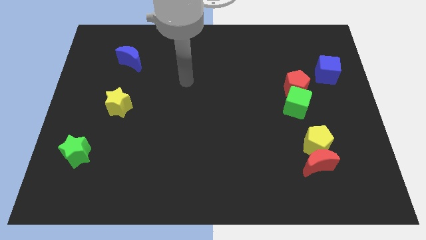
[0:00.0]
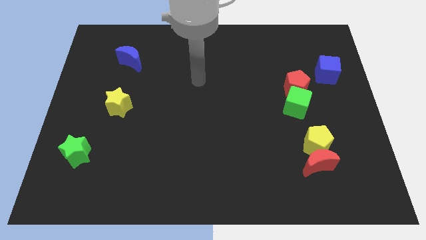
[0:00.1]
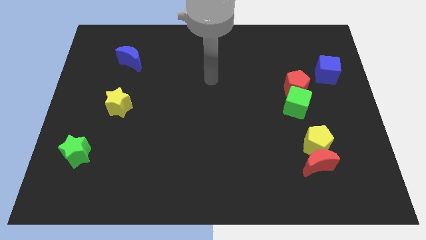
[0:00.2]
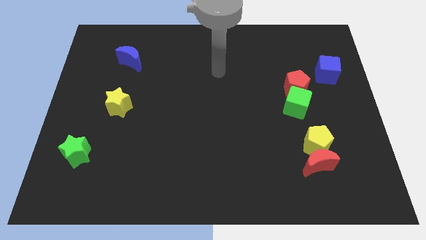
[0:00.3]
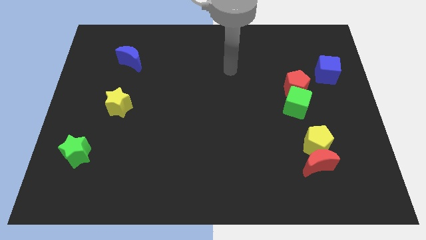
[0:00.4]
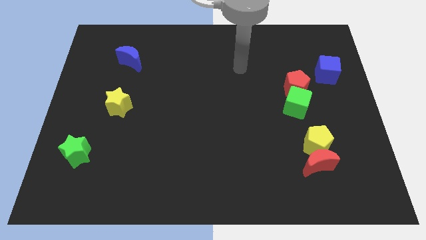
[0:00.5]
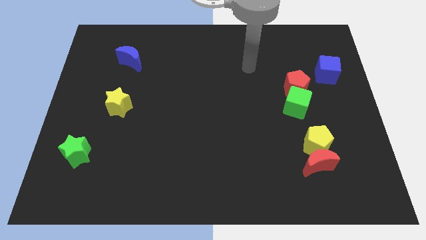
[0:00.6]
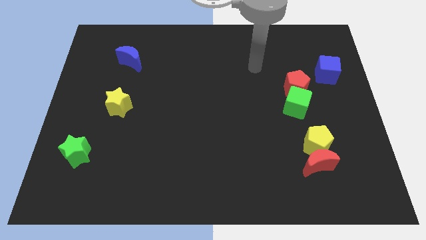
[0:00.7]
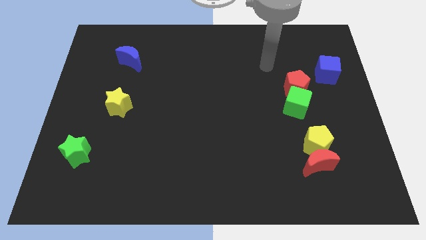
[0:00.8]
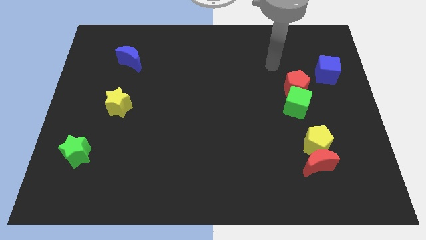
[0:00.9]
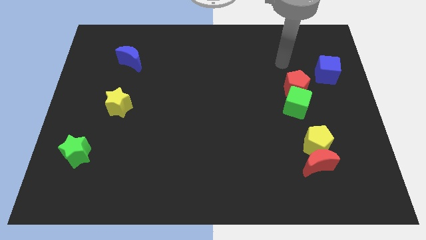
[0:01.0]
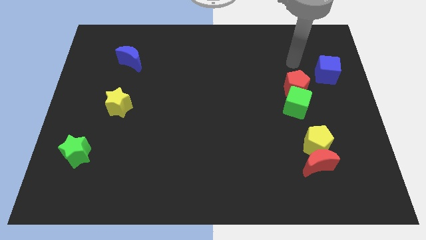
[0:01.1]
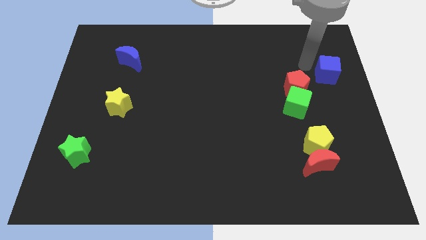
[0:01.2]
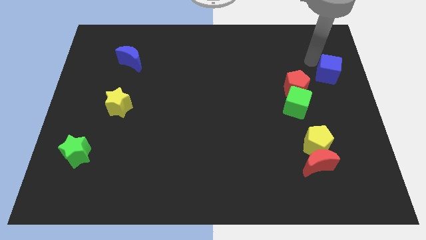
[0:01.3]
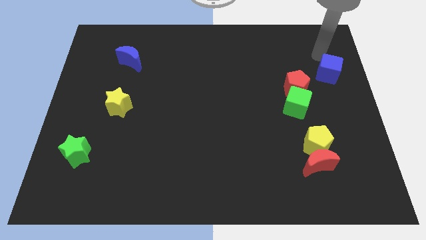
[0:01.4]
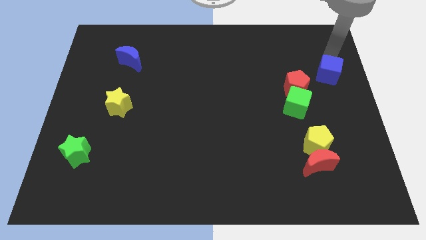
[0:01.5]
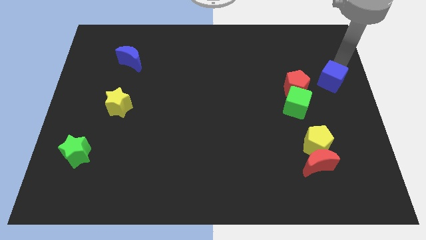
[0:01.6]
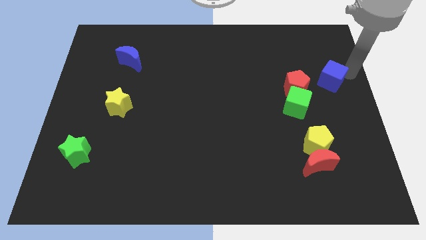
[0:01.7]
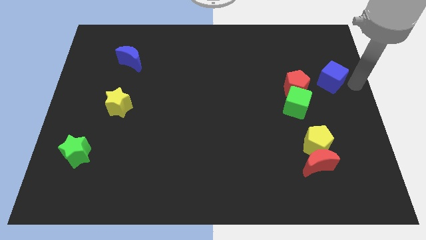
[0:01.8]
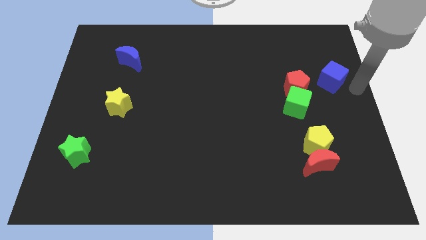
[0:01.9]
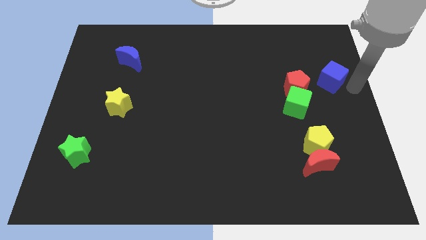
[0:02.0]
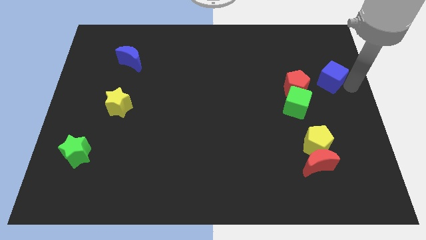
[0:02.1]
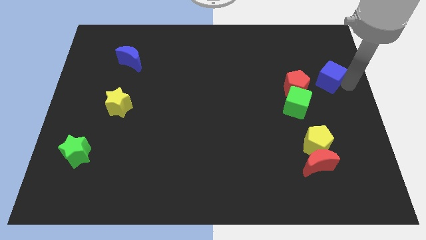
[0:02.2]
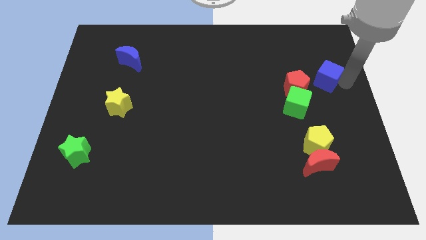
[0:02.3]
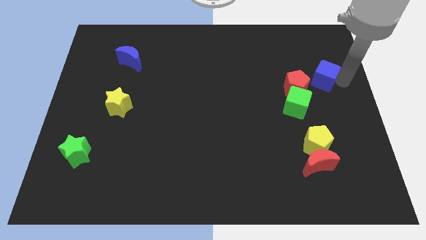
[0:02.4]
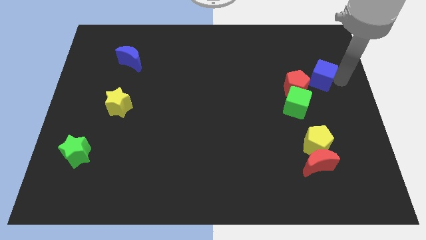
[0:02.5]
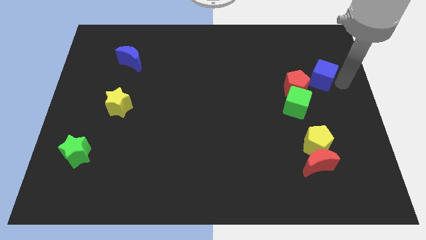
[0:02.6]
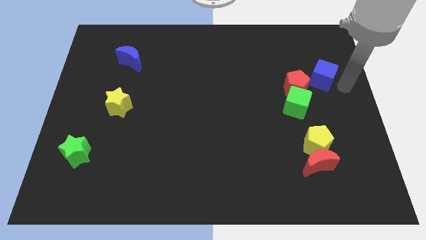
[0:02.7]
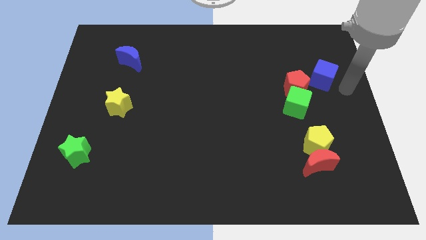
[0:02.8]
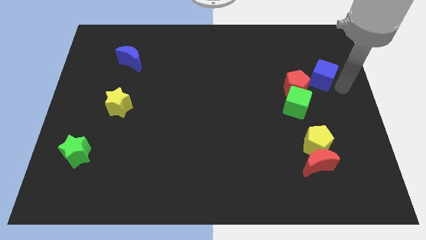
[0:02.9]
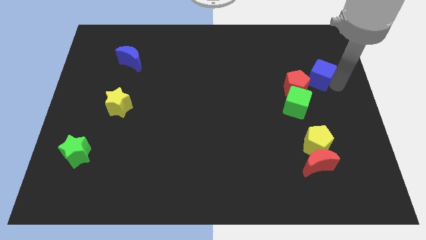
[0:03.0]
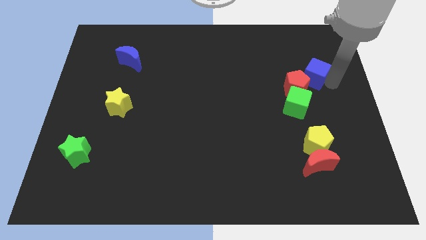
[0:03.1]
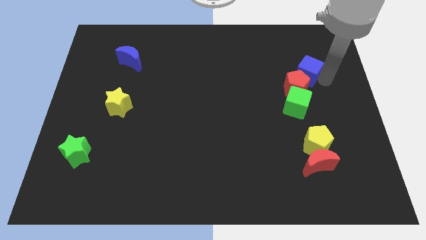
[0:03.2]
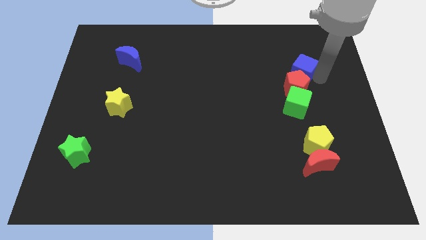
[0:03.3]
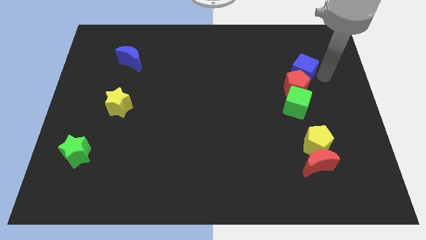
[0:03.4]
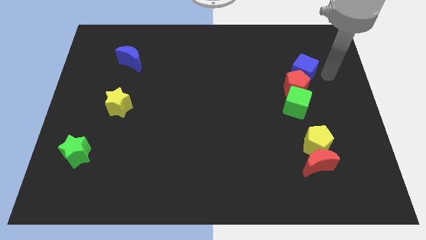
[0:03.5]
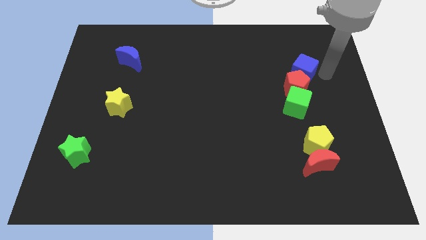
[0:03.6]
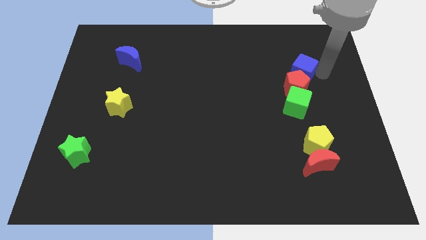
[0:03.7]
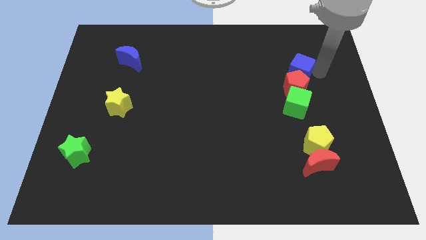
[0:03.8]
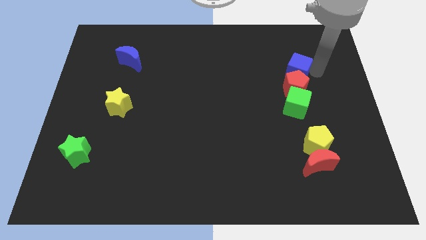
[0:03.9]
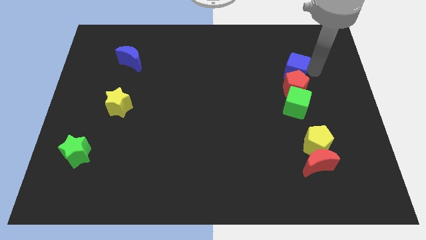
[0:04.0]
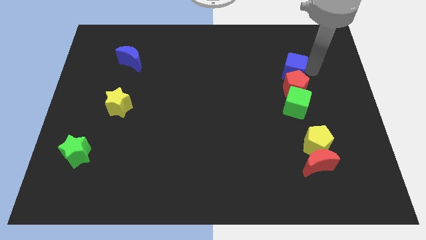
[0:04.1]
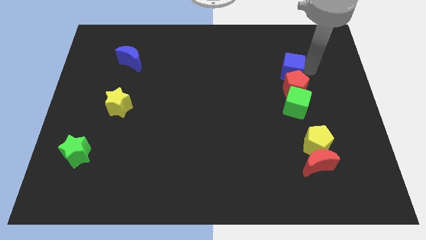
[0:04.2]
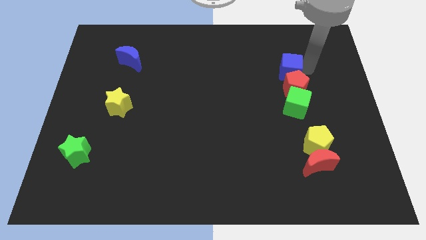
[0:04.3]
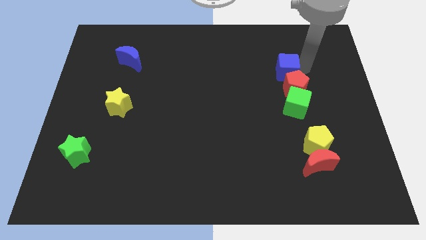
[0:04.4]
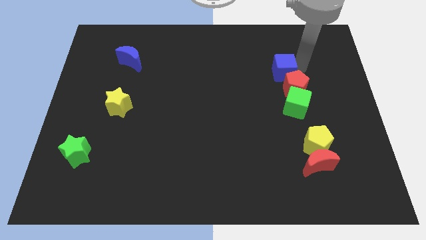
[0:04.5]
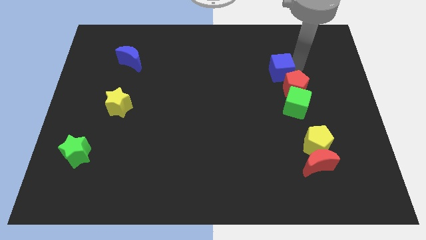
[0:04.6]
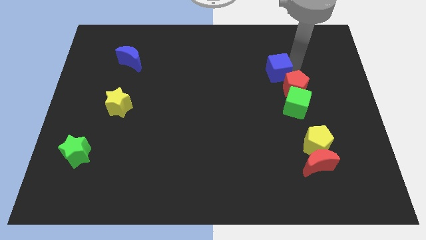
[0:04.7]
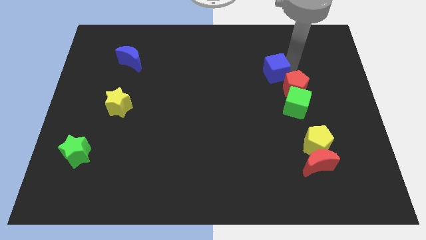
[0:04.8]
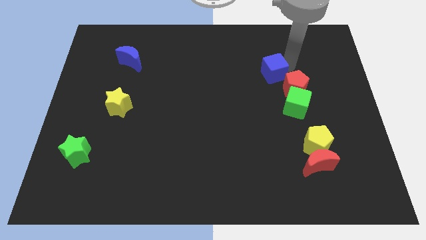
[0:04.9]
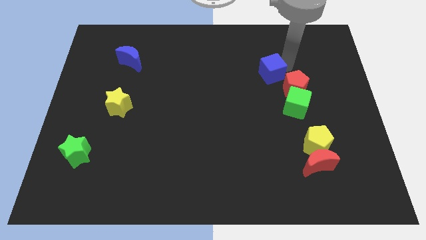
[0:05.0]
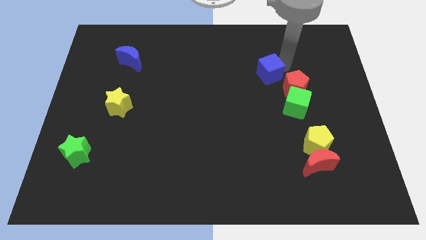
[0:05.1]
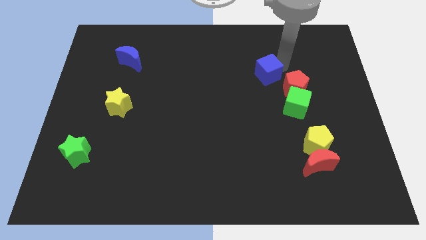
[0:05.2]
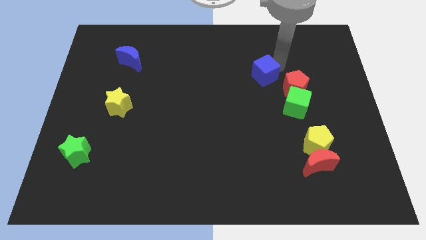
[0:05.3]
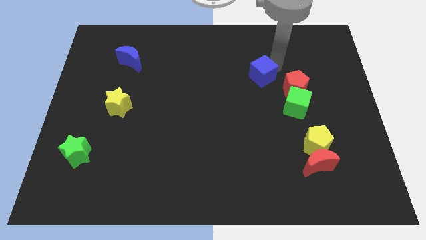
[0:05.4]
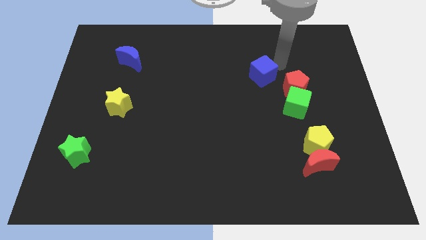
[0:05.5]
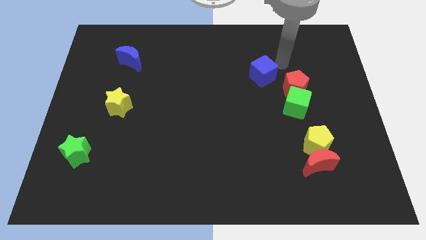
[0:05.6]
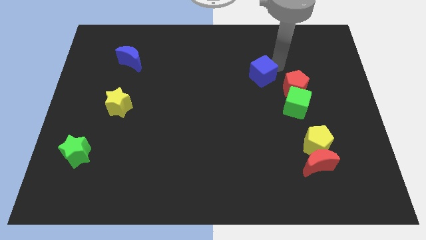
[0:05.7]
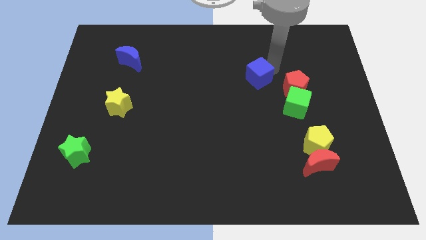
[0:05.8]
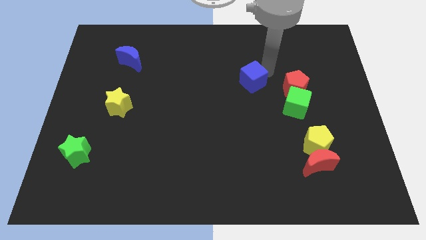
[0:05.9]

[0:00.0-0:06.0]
move the blue cube to the center

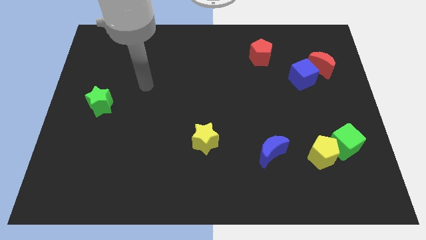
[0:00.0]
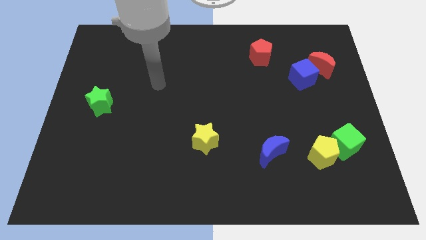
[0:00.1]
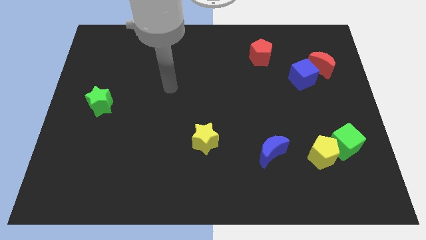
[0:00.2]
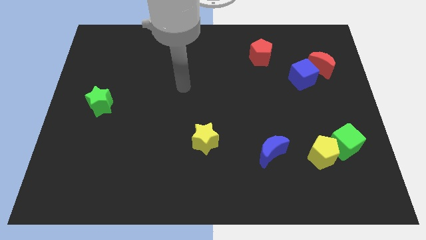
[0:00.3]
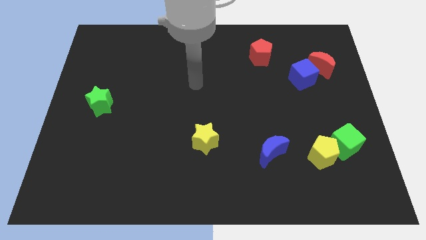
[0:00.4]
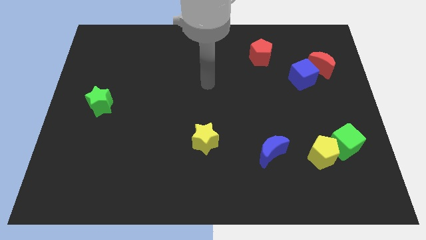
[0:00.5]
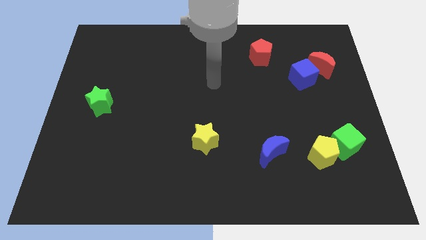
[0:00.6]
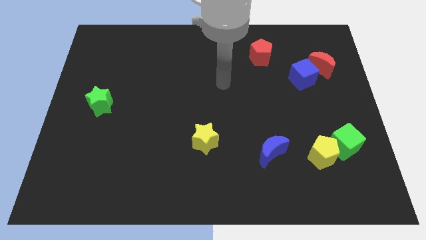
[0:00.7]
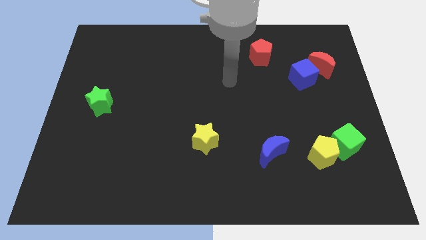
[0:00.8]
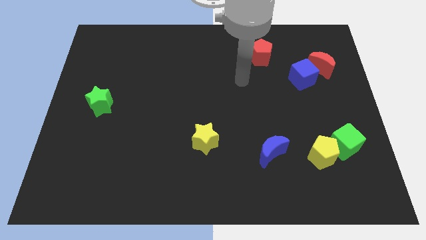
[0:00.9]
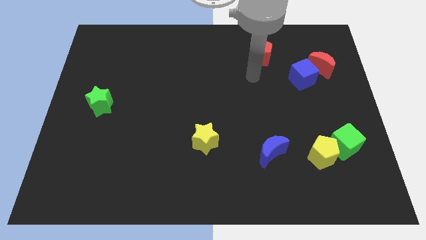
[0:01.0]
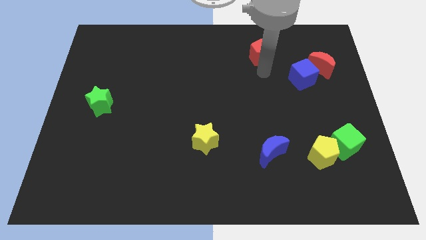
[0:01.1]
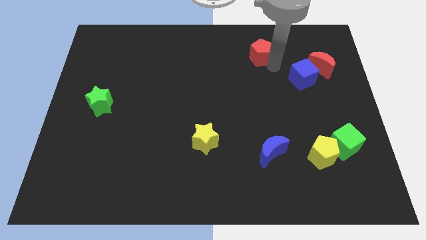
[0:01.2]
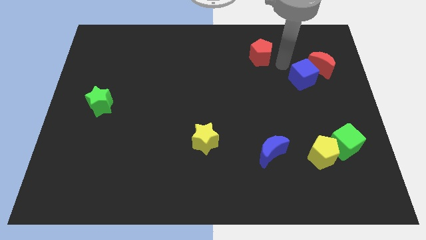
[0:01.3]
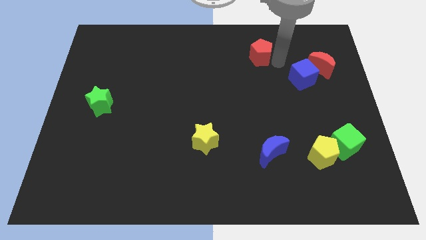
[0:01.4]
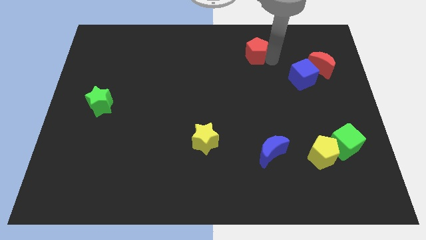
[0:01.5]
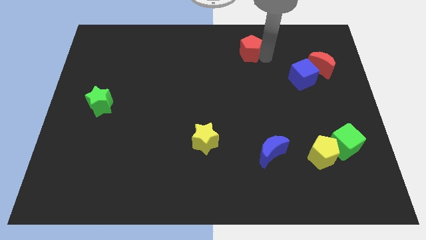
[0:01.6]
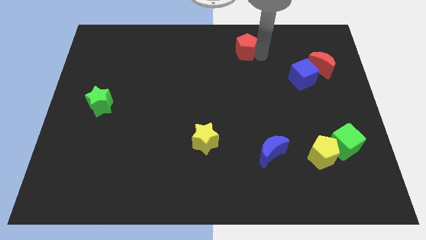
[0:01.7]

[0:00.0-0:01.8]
move the red pentagon to the top
